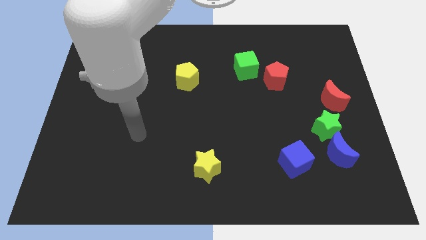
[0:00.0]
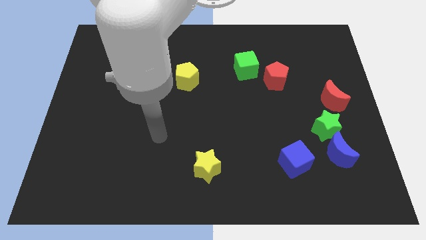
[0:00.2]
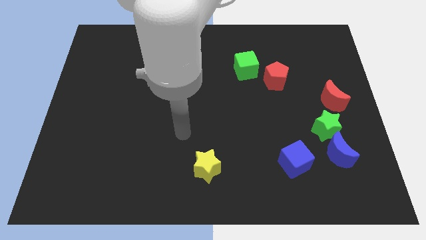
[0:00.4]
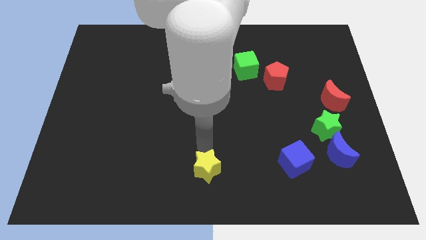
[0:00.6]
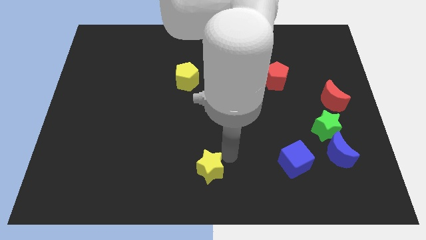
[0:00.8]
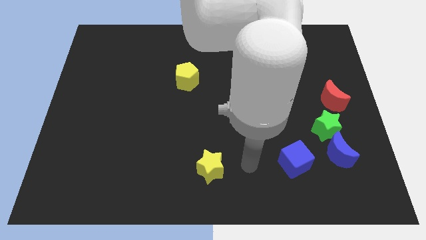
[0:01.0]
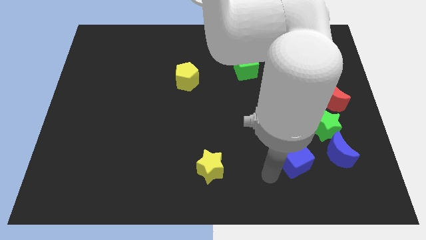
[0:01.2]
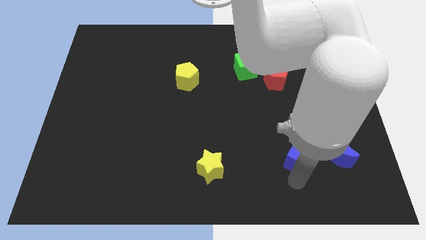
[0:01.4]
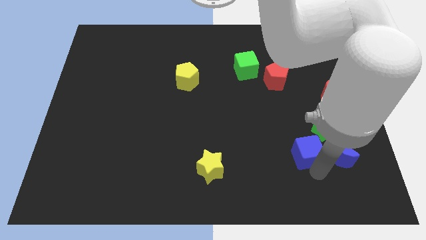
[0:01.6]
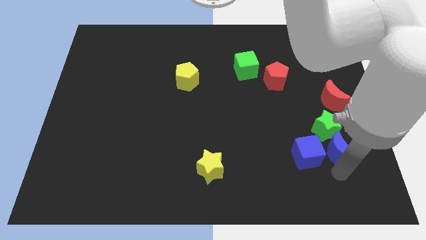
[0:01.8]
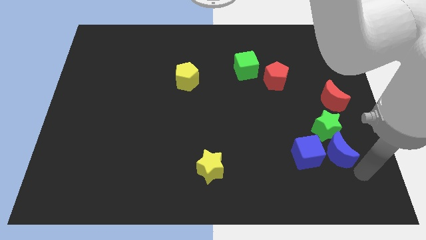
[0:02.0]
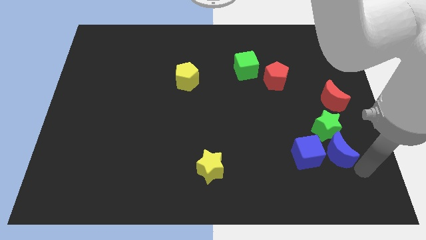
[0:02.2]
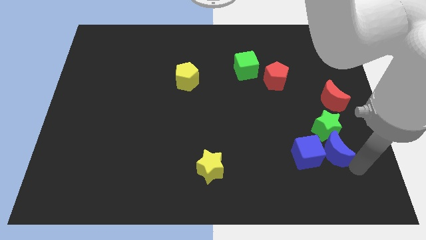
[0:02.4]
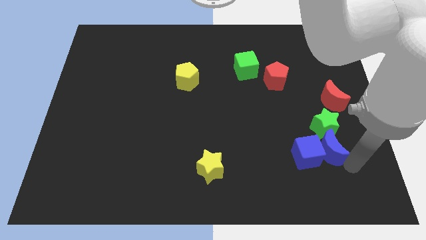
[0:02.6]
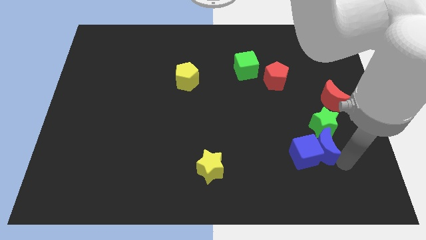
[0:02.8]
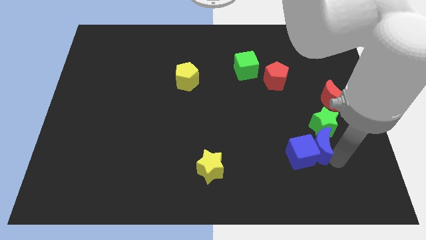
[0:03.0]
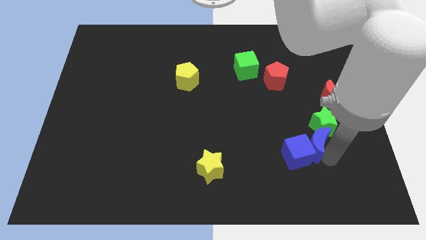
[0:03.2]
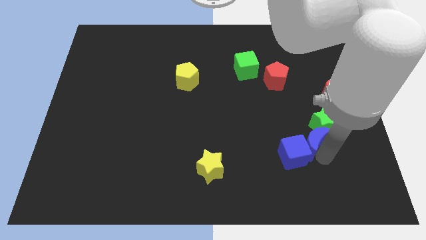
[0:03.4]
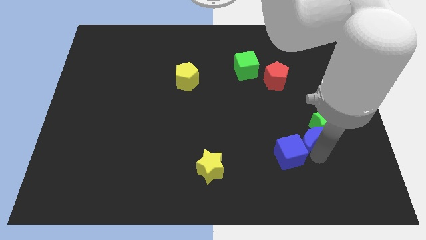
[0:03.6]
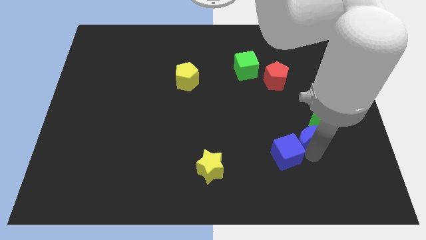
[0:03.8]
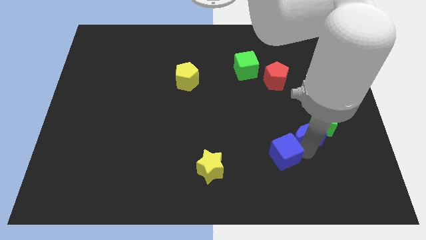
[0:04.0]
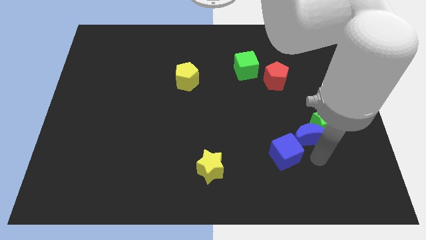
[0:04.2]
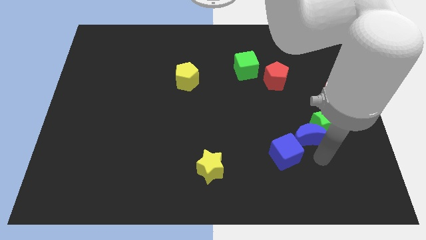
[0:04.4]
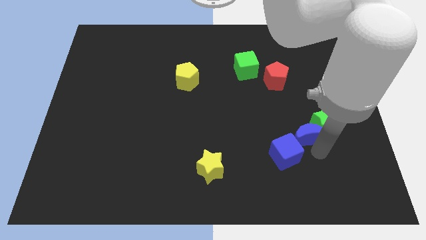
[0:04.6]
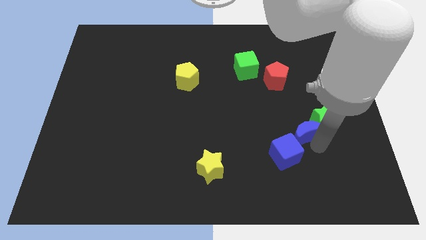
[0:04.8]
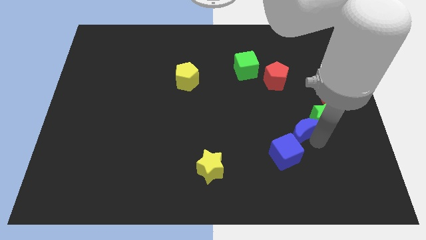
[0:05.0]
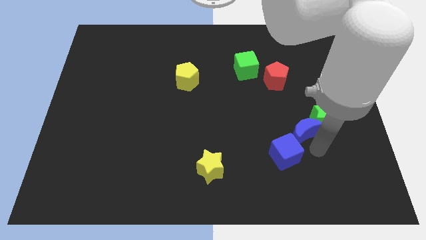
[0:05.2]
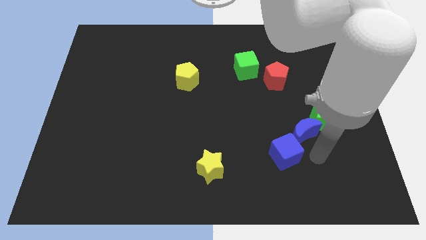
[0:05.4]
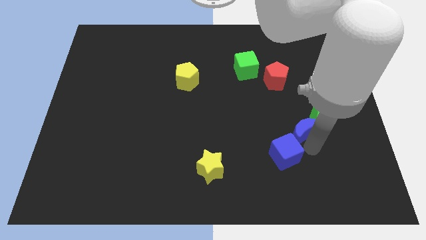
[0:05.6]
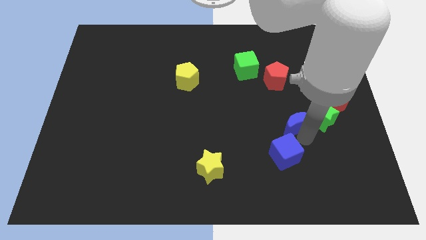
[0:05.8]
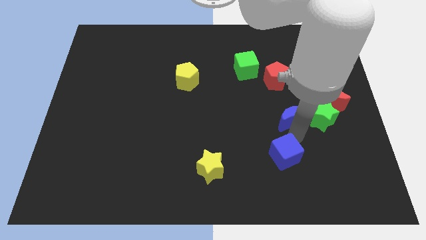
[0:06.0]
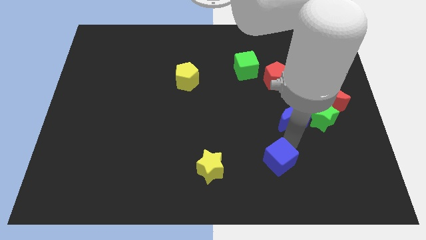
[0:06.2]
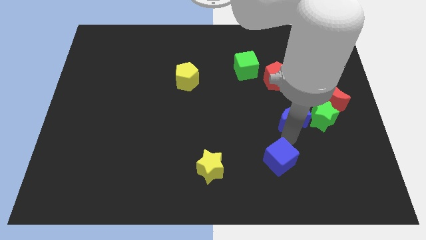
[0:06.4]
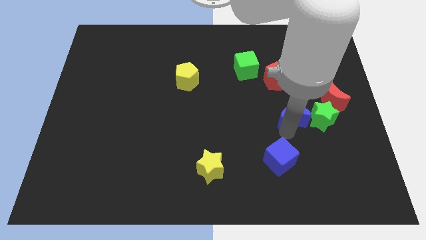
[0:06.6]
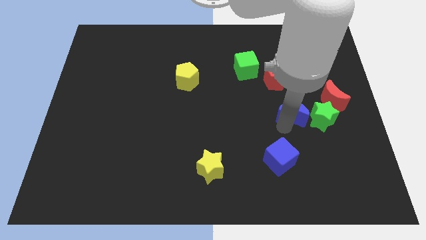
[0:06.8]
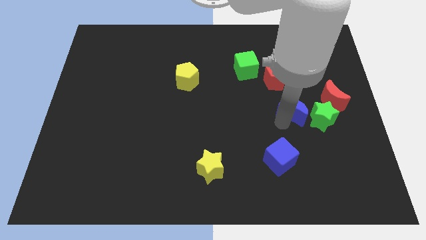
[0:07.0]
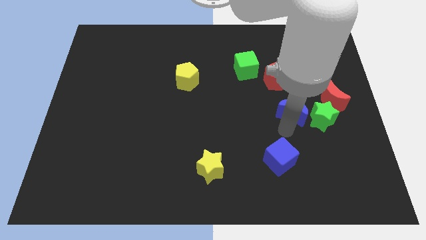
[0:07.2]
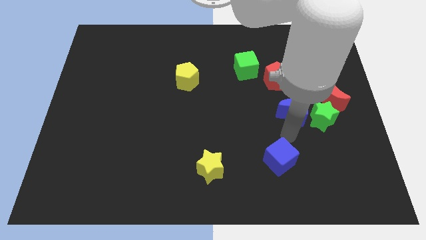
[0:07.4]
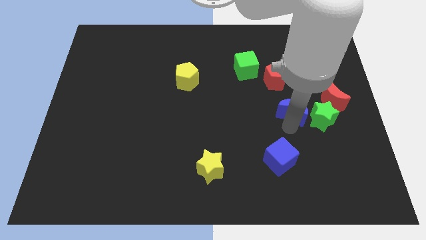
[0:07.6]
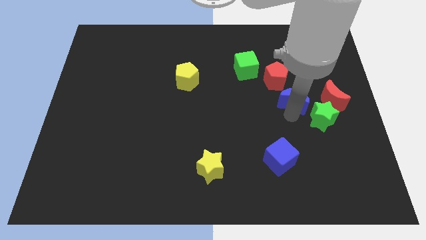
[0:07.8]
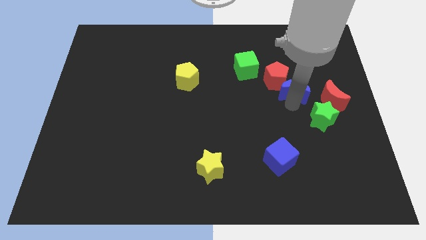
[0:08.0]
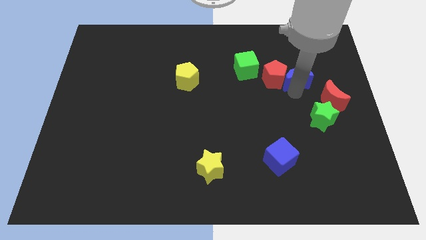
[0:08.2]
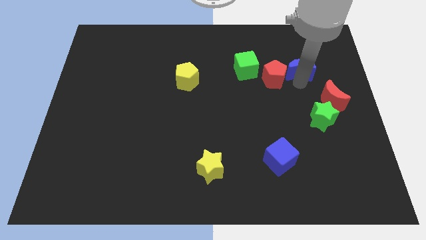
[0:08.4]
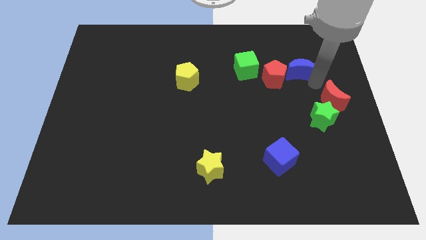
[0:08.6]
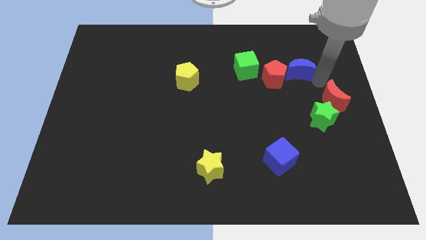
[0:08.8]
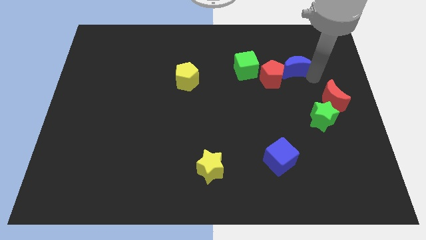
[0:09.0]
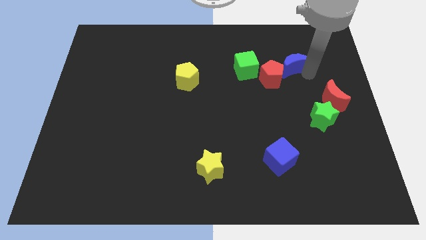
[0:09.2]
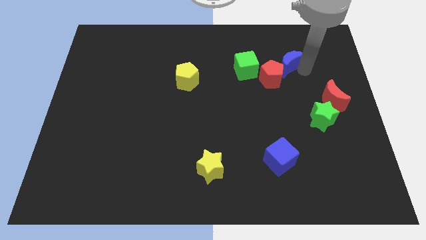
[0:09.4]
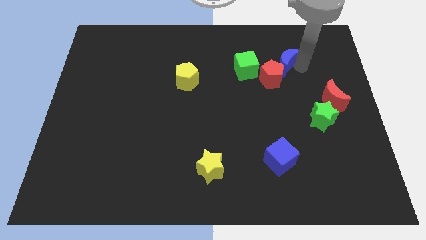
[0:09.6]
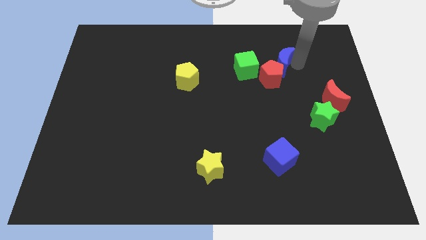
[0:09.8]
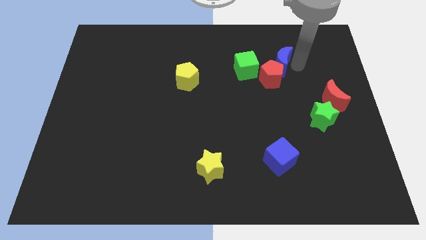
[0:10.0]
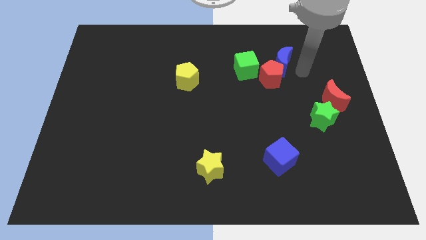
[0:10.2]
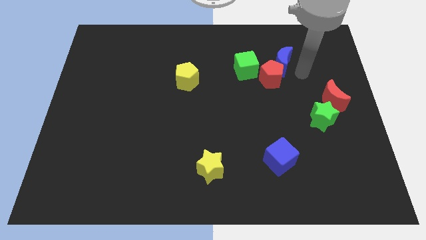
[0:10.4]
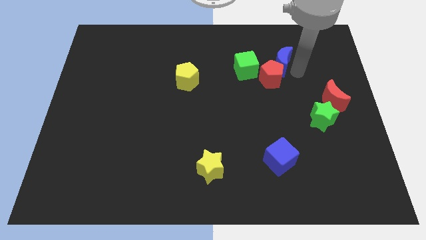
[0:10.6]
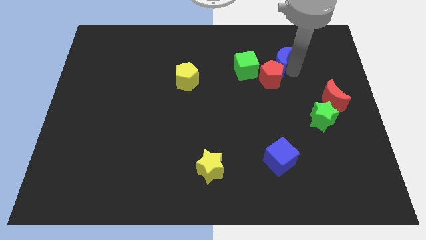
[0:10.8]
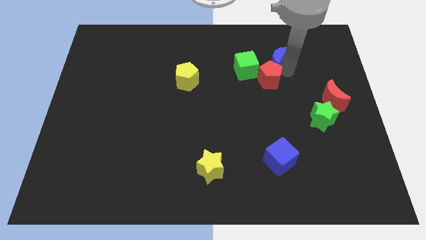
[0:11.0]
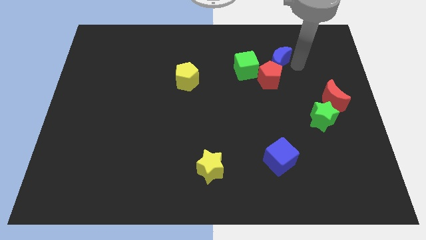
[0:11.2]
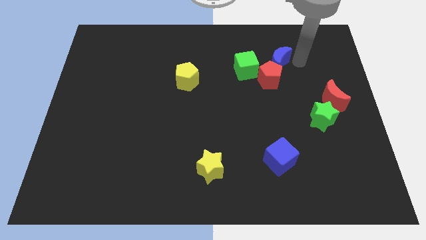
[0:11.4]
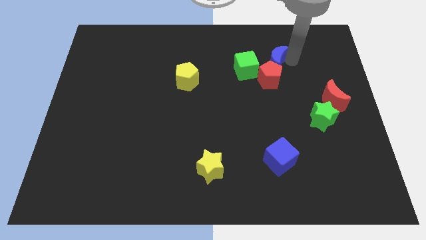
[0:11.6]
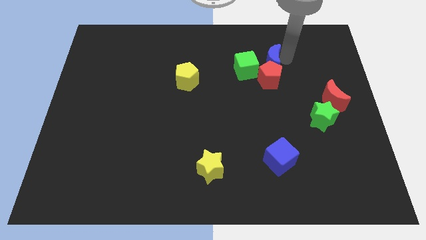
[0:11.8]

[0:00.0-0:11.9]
slide the blue moon to the top left of the red pentagon

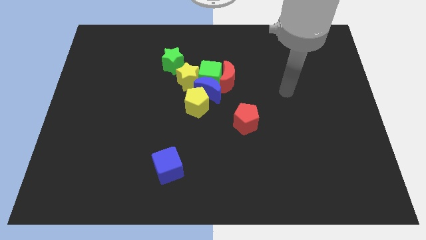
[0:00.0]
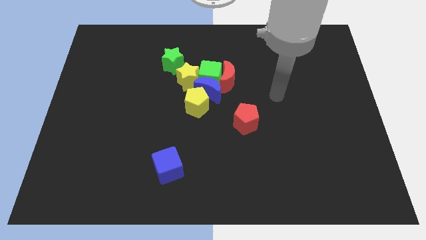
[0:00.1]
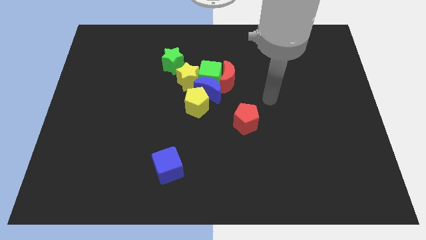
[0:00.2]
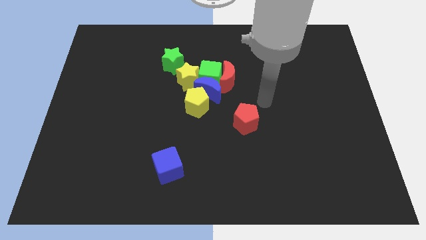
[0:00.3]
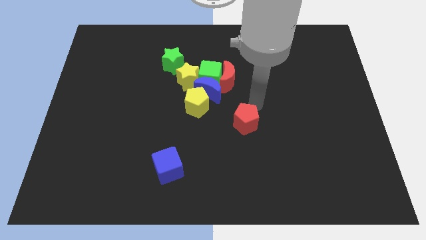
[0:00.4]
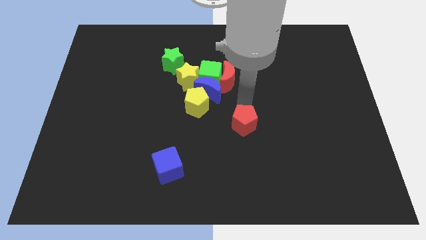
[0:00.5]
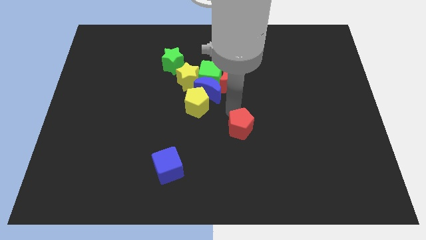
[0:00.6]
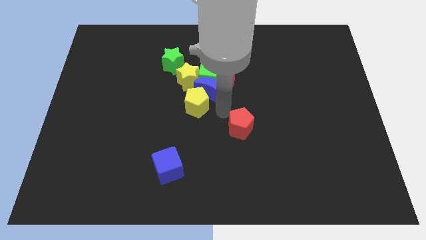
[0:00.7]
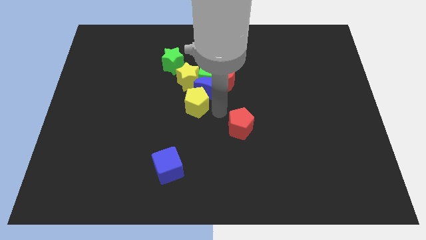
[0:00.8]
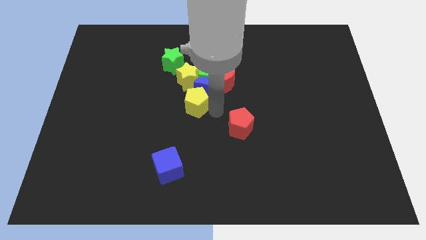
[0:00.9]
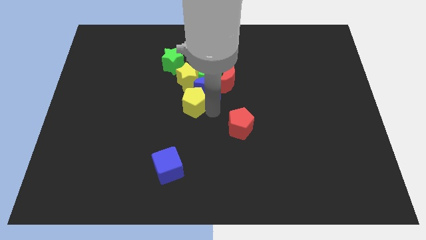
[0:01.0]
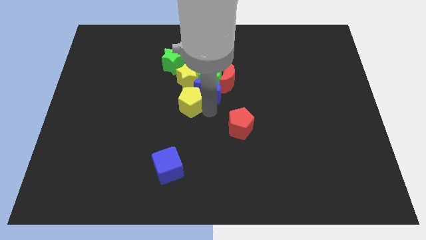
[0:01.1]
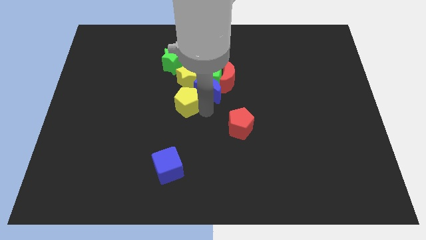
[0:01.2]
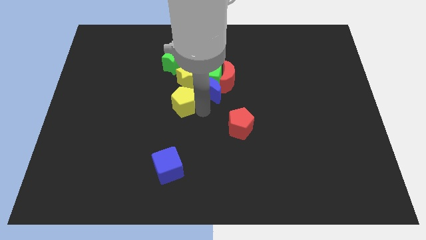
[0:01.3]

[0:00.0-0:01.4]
push the yellow pentagon to the bottom left side of the yellow star

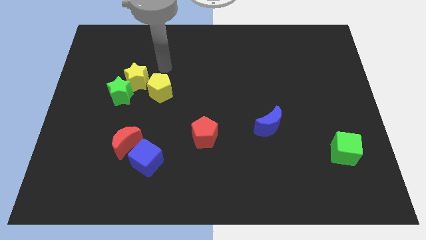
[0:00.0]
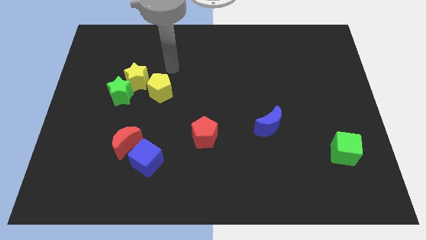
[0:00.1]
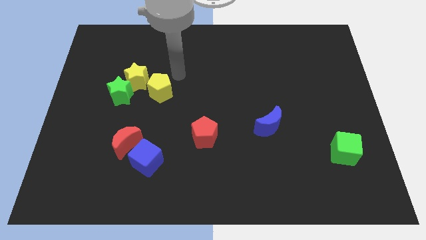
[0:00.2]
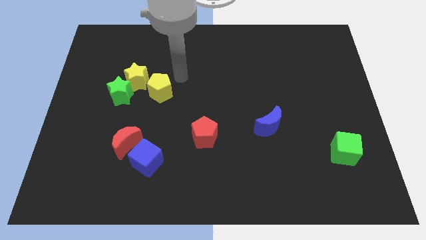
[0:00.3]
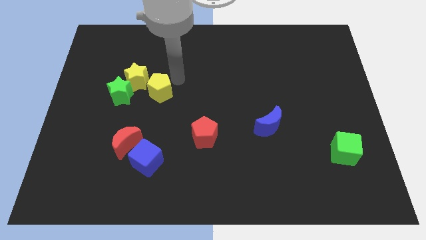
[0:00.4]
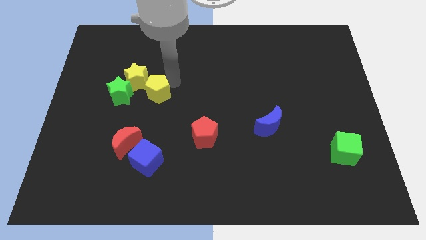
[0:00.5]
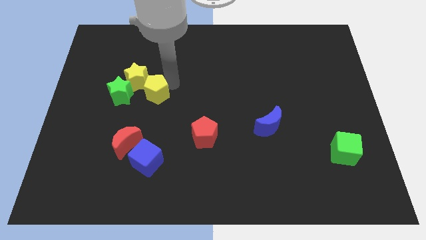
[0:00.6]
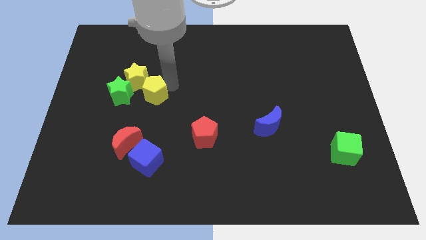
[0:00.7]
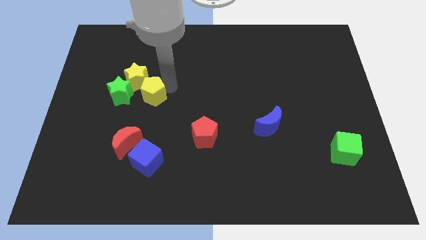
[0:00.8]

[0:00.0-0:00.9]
slide the yellow pentagon to the bottom side of the yellow star

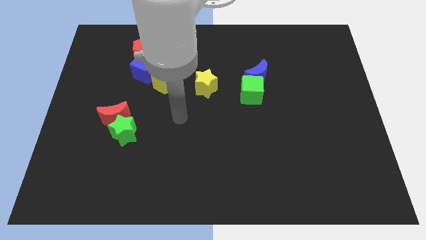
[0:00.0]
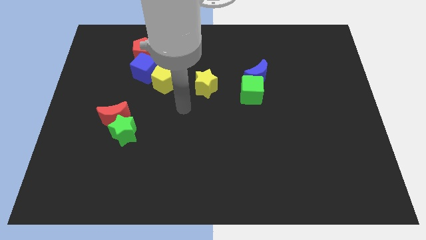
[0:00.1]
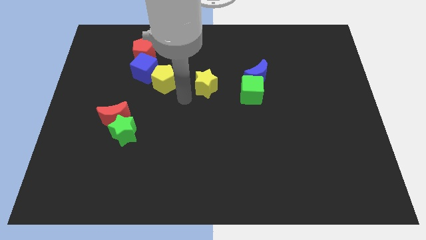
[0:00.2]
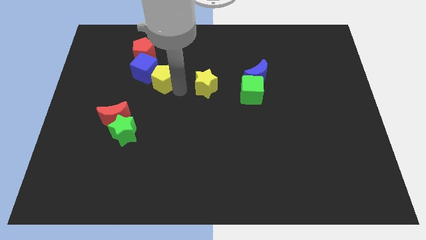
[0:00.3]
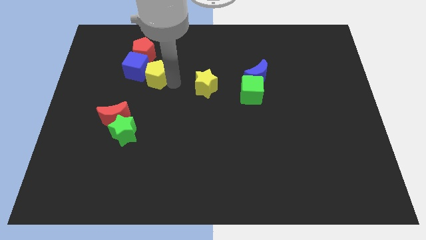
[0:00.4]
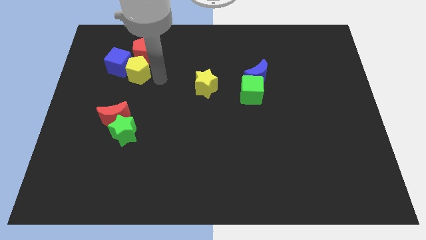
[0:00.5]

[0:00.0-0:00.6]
push the blue cube to the left side of the red pentagon
